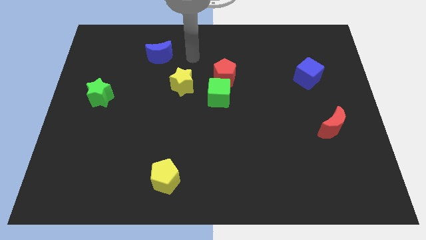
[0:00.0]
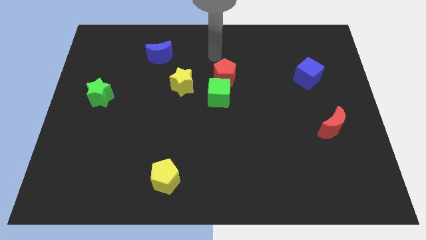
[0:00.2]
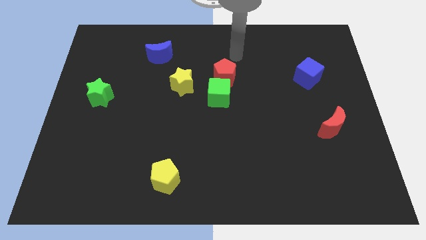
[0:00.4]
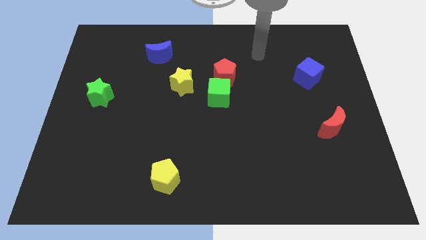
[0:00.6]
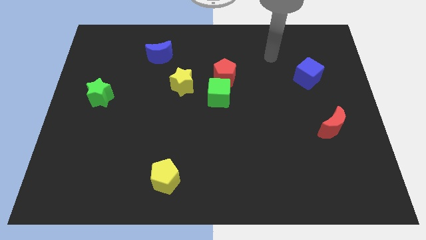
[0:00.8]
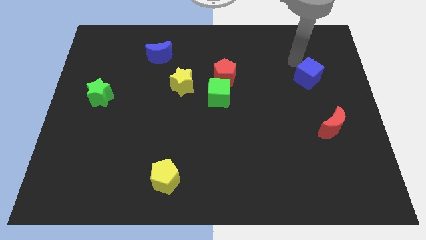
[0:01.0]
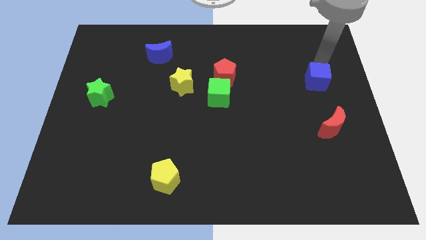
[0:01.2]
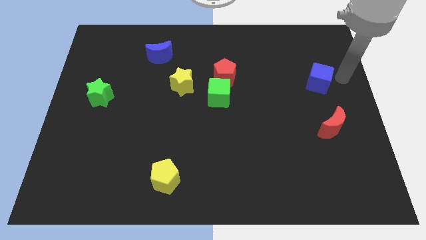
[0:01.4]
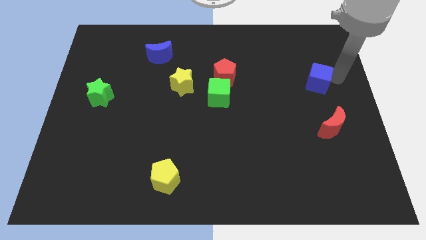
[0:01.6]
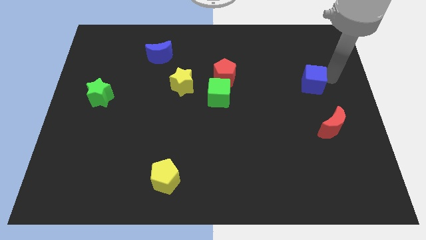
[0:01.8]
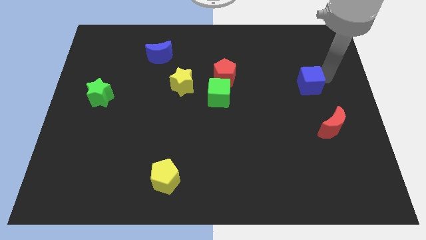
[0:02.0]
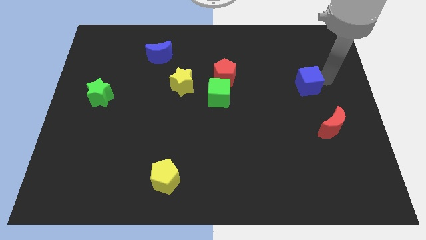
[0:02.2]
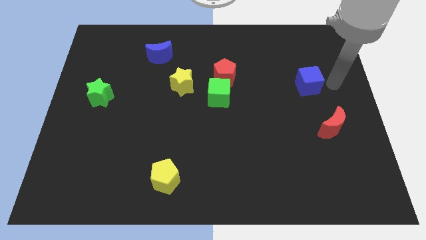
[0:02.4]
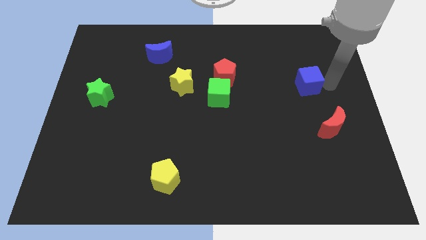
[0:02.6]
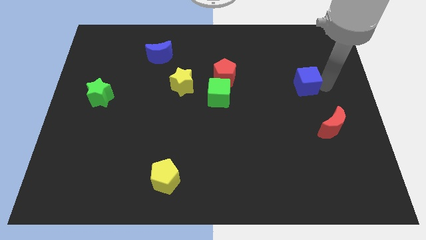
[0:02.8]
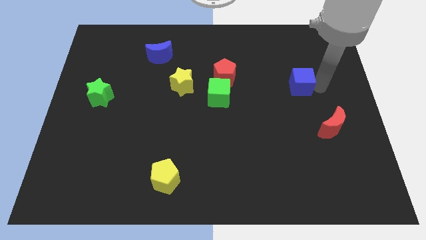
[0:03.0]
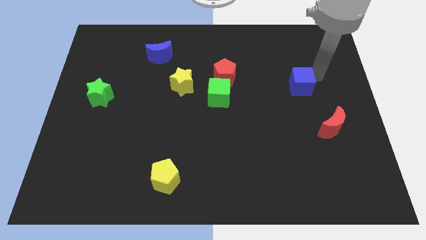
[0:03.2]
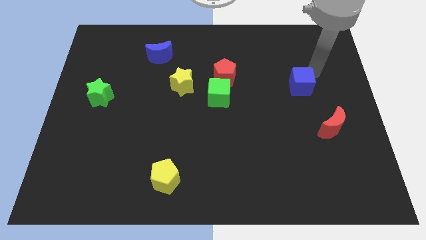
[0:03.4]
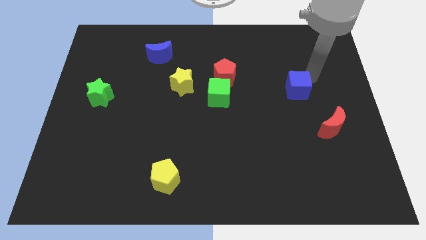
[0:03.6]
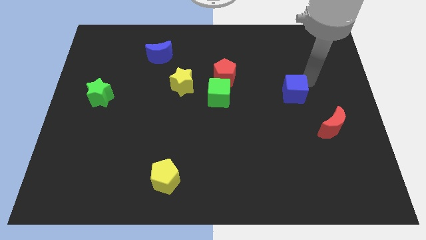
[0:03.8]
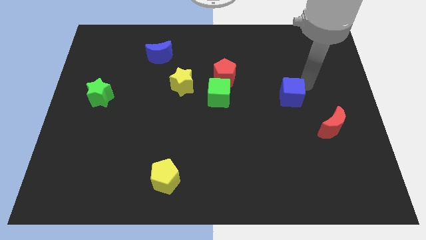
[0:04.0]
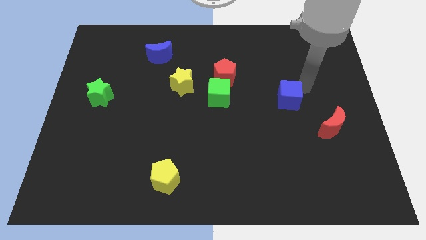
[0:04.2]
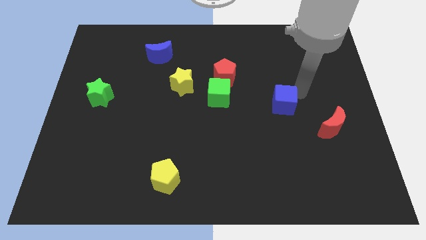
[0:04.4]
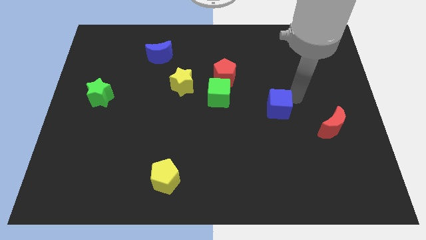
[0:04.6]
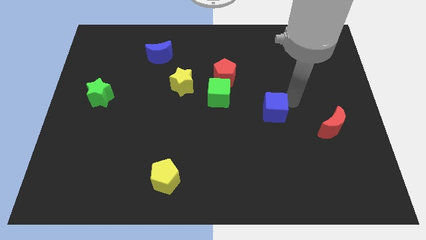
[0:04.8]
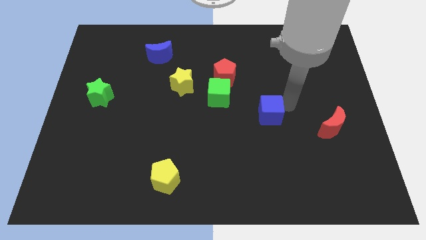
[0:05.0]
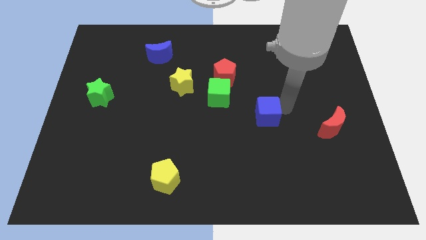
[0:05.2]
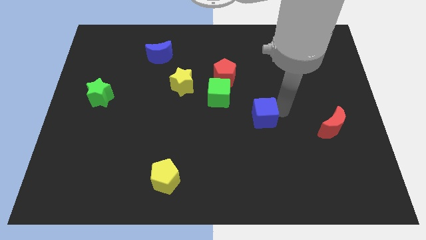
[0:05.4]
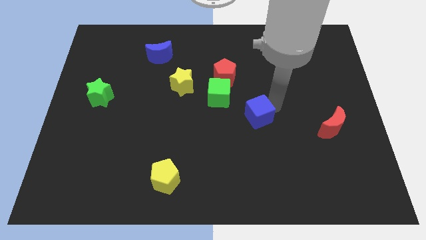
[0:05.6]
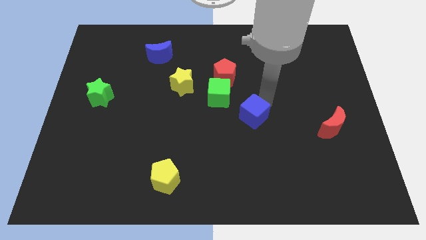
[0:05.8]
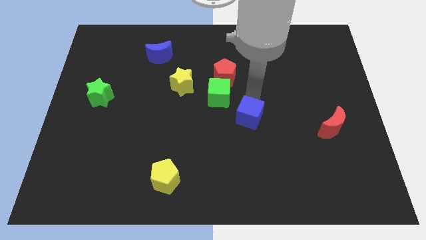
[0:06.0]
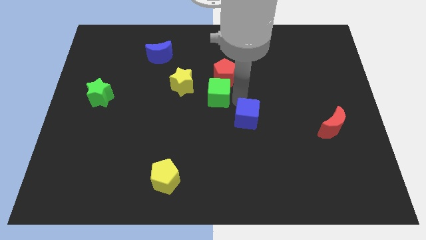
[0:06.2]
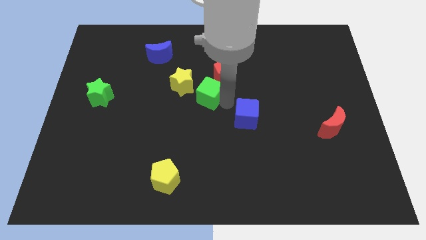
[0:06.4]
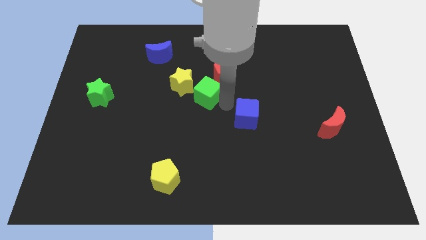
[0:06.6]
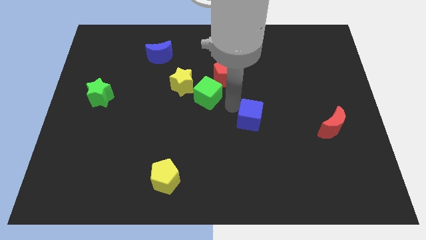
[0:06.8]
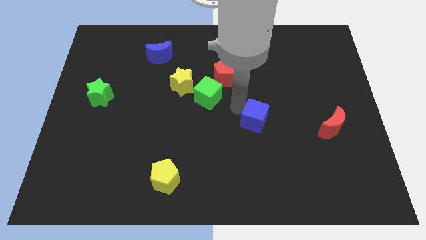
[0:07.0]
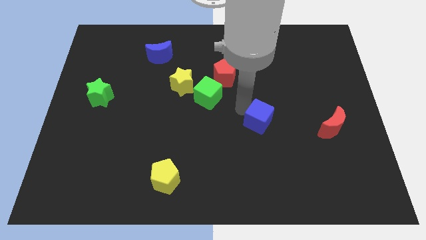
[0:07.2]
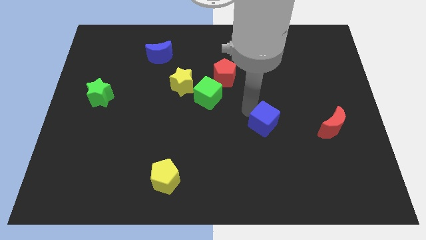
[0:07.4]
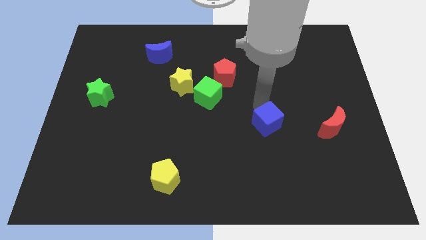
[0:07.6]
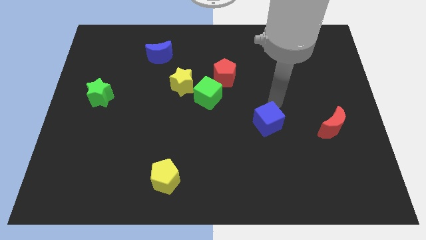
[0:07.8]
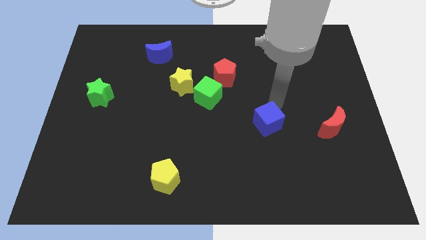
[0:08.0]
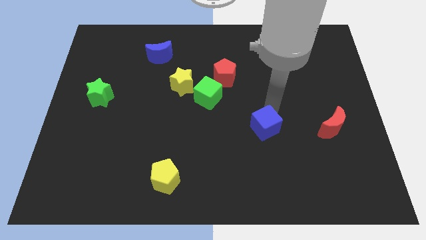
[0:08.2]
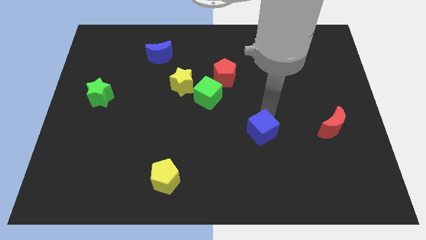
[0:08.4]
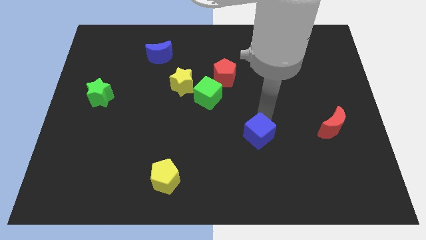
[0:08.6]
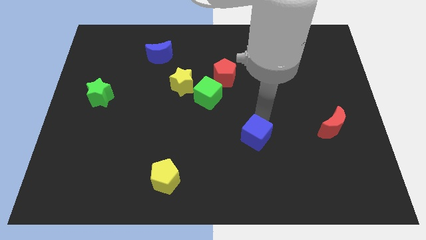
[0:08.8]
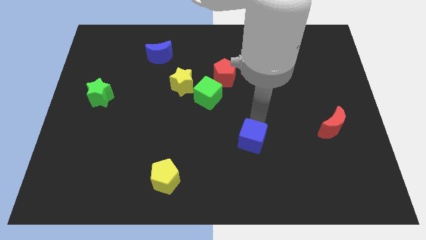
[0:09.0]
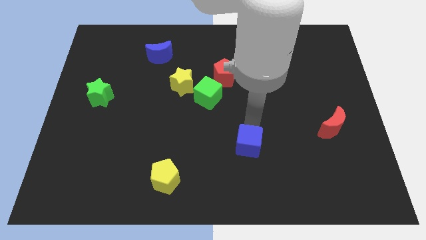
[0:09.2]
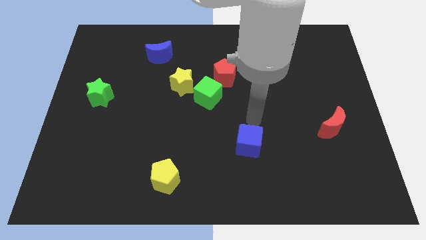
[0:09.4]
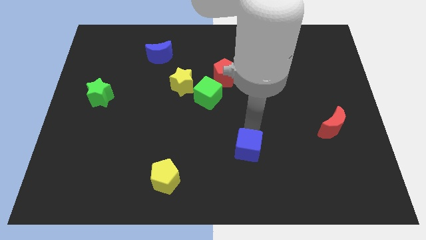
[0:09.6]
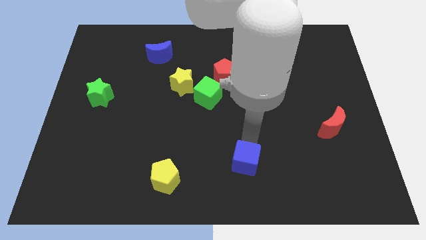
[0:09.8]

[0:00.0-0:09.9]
move the blue cube to the bottom

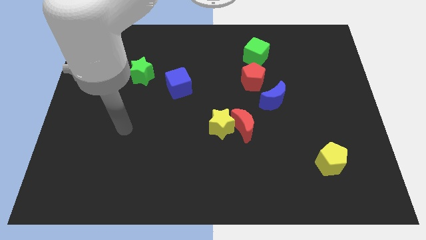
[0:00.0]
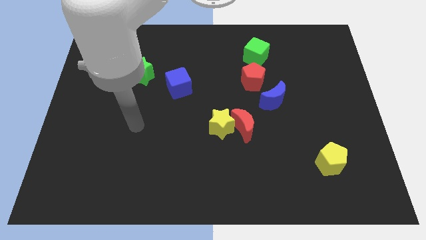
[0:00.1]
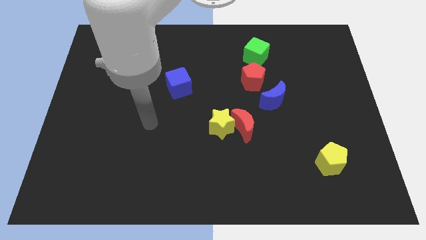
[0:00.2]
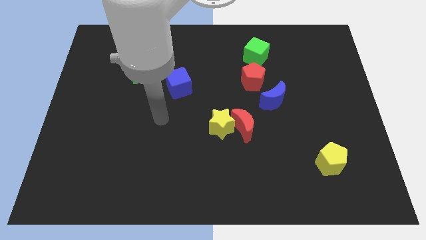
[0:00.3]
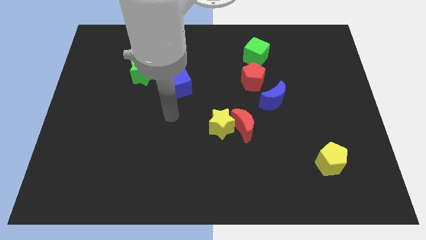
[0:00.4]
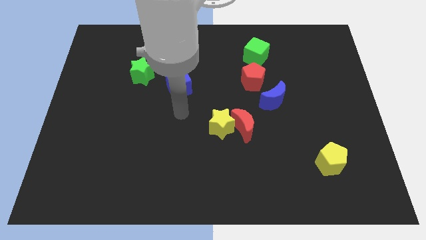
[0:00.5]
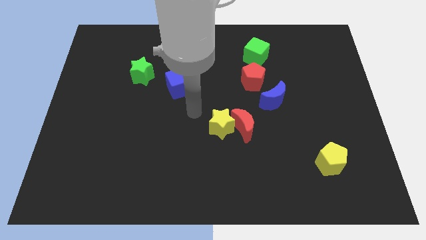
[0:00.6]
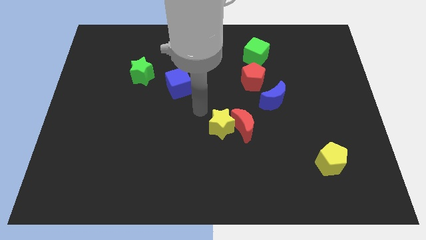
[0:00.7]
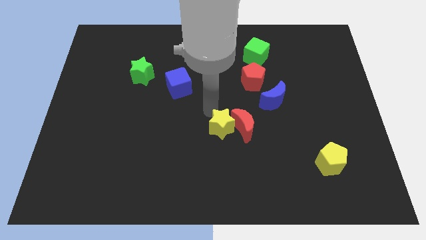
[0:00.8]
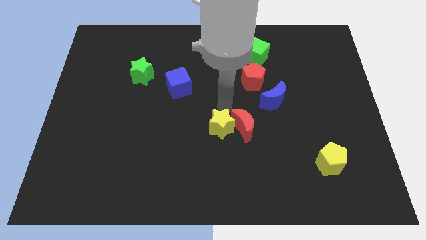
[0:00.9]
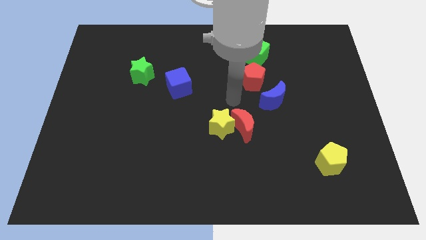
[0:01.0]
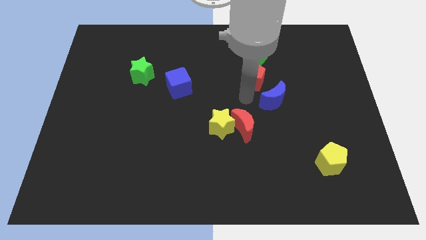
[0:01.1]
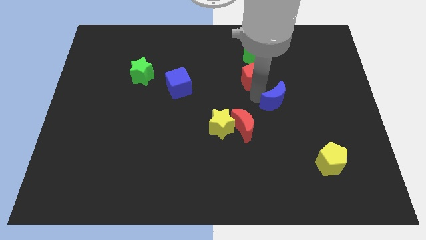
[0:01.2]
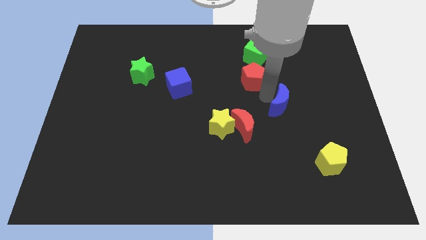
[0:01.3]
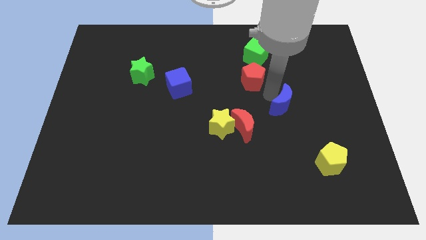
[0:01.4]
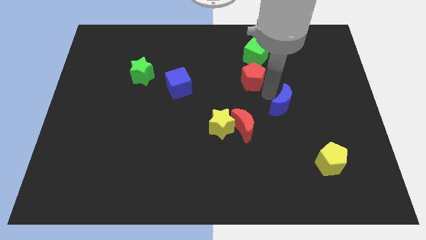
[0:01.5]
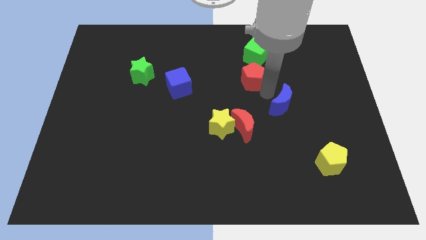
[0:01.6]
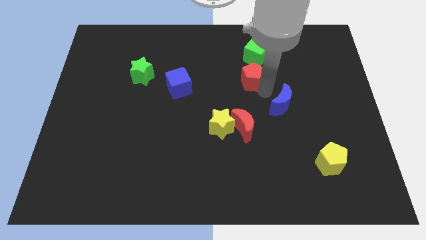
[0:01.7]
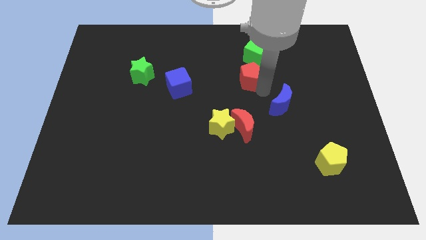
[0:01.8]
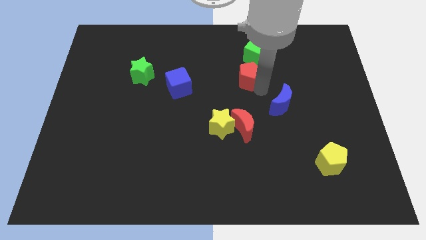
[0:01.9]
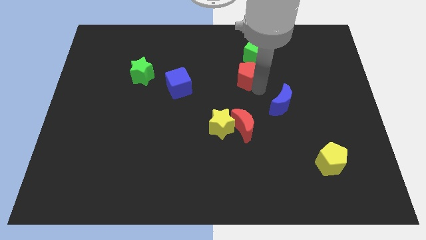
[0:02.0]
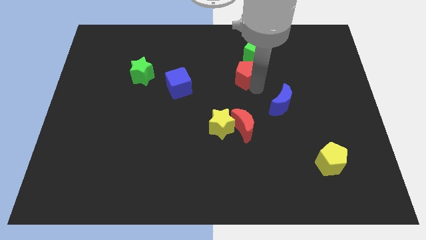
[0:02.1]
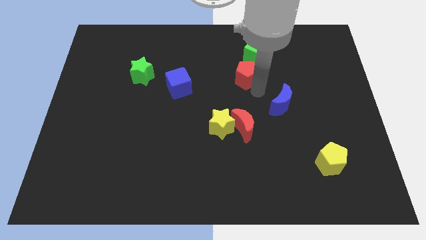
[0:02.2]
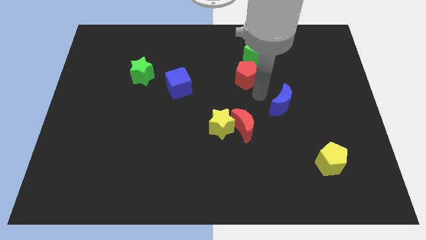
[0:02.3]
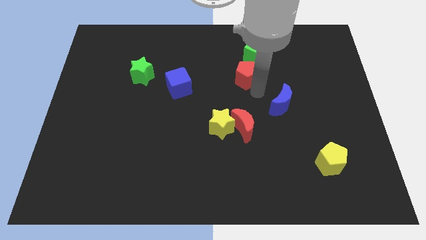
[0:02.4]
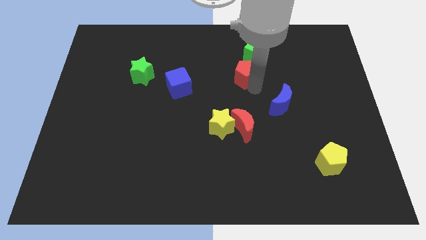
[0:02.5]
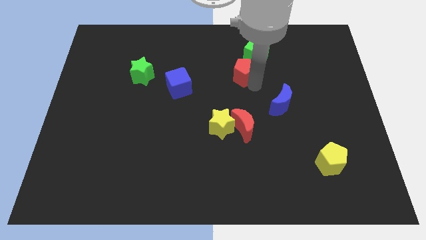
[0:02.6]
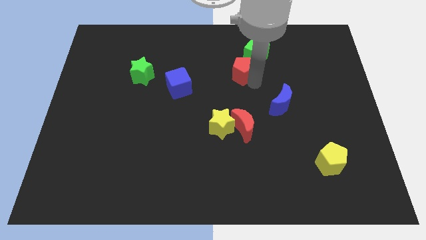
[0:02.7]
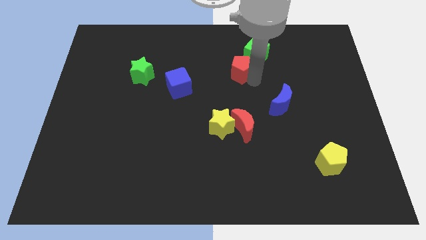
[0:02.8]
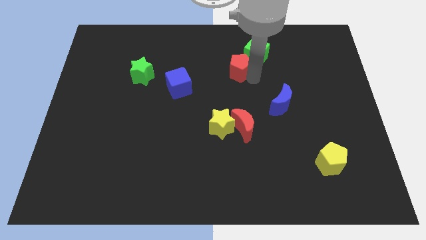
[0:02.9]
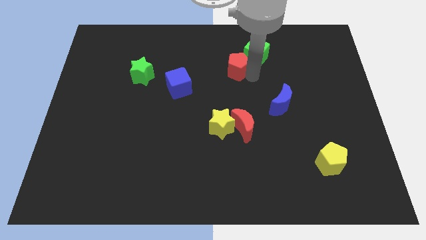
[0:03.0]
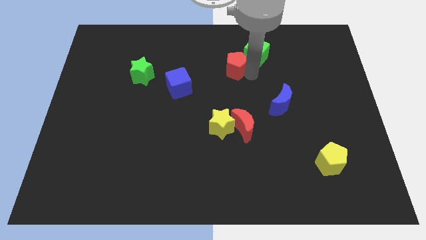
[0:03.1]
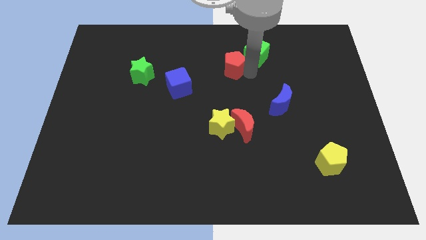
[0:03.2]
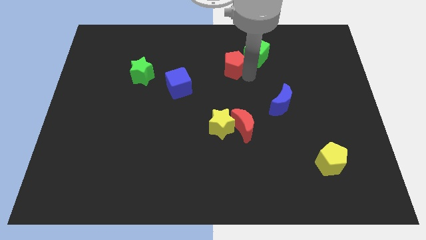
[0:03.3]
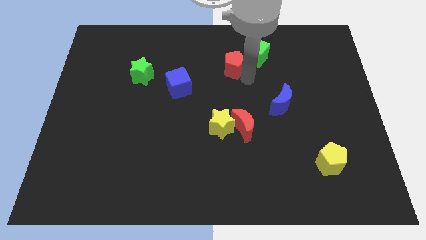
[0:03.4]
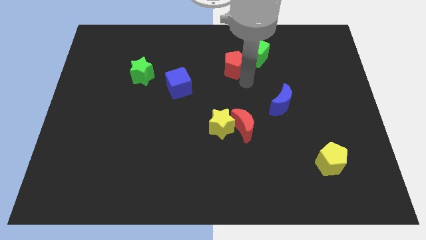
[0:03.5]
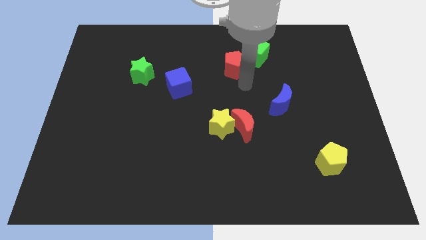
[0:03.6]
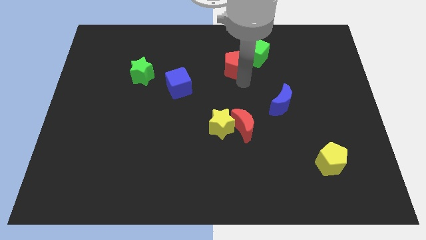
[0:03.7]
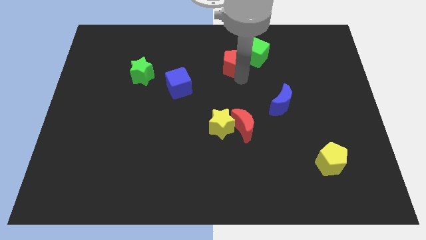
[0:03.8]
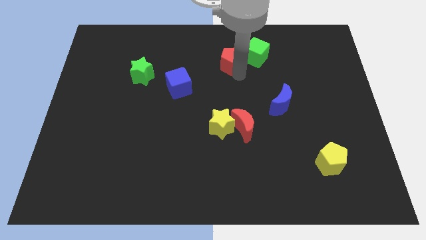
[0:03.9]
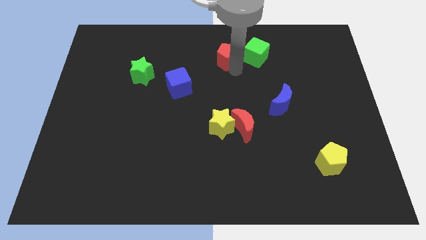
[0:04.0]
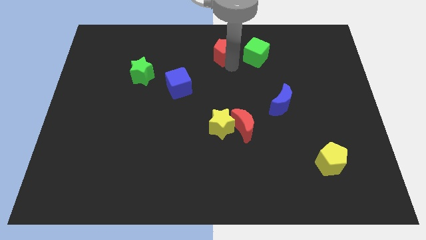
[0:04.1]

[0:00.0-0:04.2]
move the red pentagon to the towards your base
